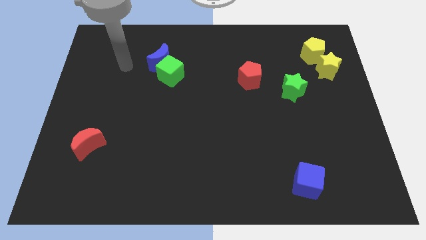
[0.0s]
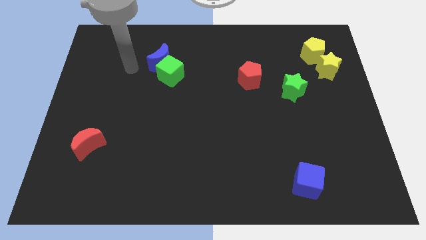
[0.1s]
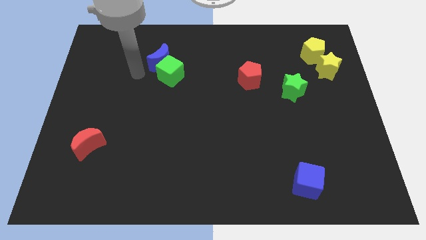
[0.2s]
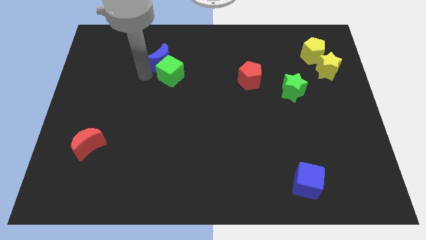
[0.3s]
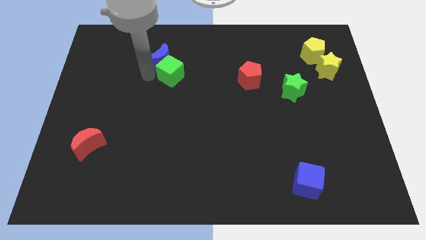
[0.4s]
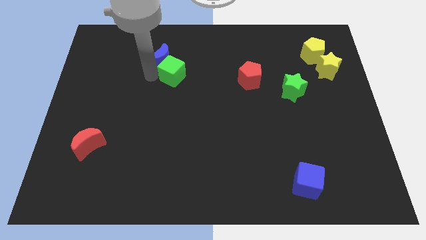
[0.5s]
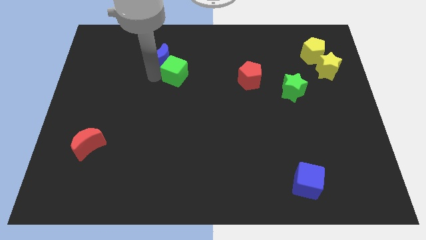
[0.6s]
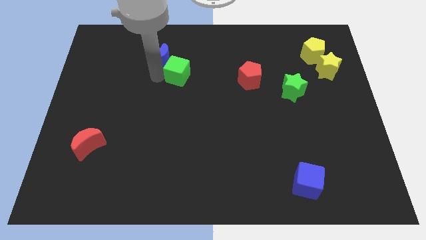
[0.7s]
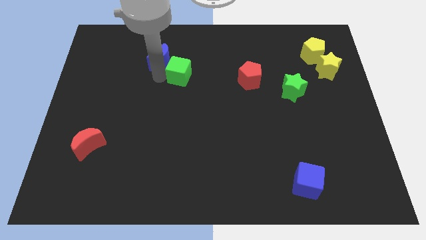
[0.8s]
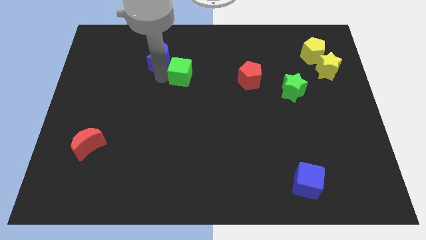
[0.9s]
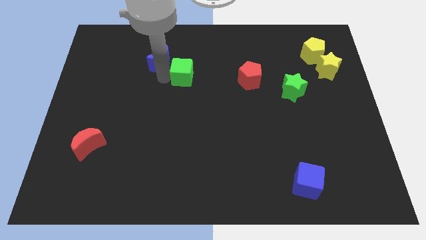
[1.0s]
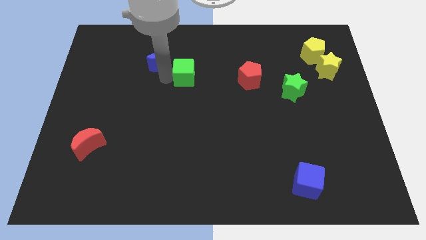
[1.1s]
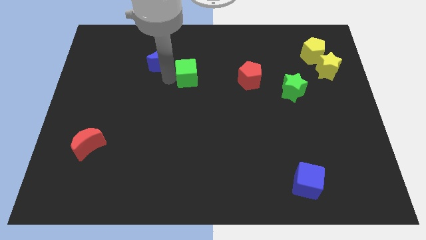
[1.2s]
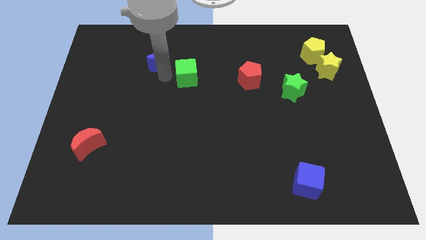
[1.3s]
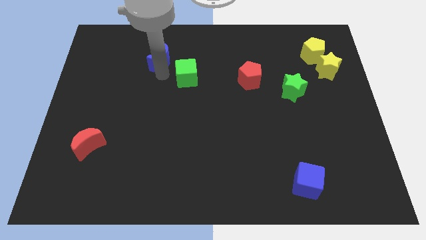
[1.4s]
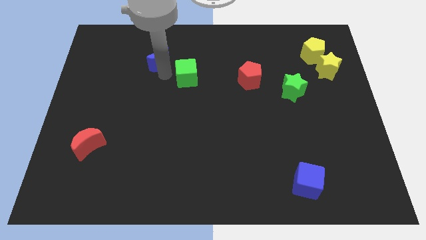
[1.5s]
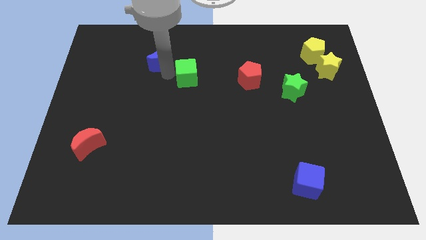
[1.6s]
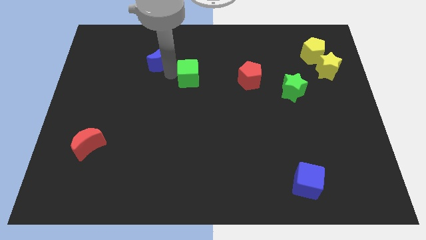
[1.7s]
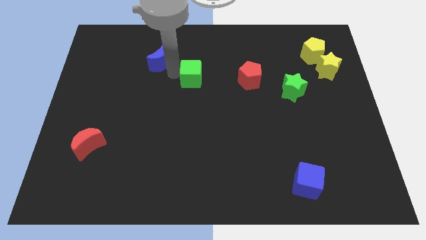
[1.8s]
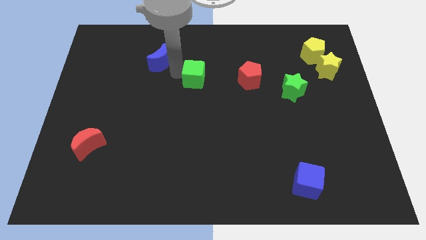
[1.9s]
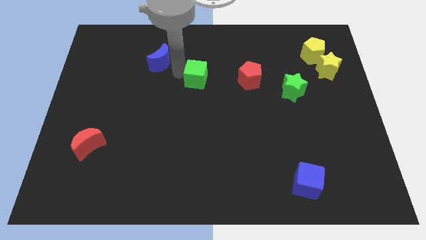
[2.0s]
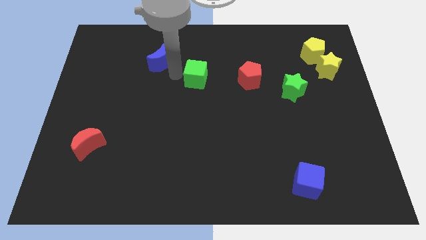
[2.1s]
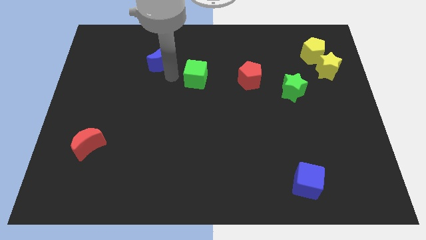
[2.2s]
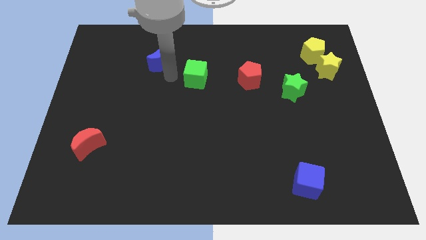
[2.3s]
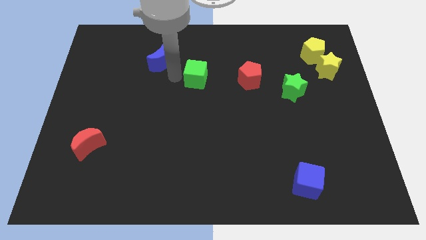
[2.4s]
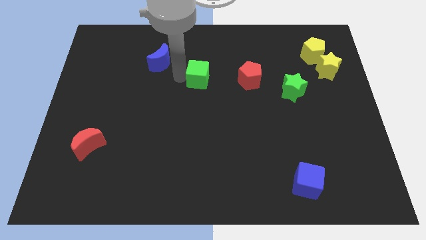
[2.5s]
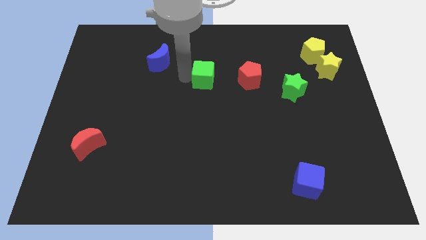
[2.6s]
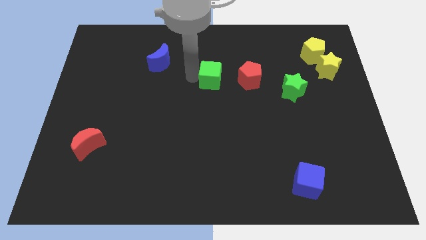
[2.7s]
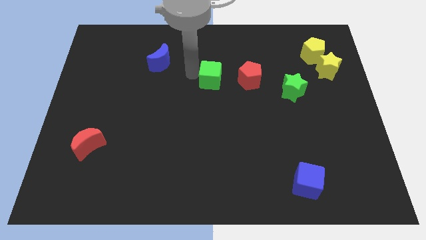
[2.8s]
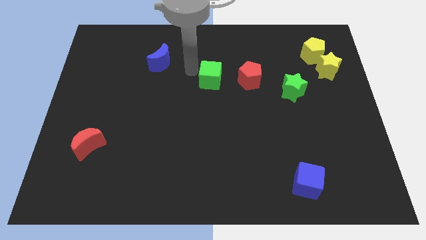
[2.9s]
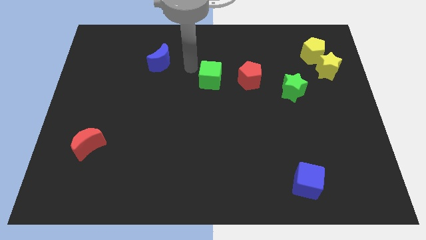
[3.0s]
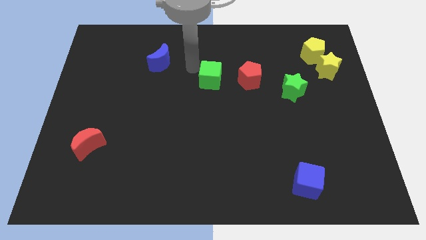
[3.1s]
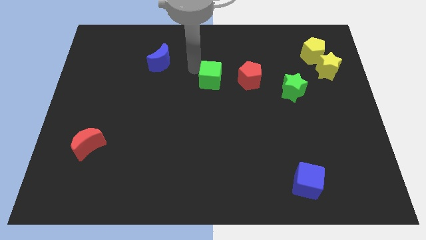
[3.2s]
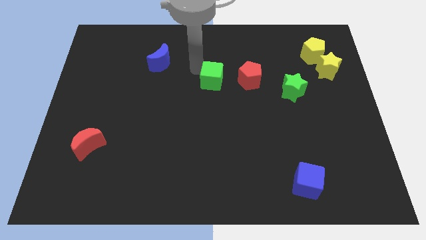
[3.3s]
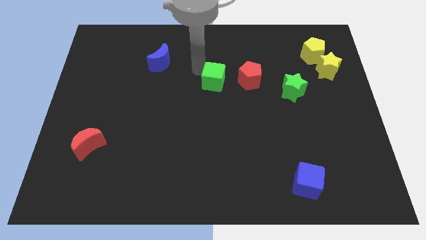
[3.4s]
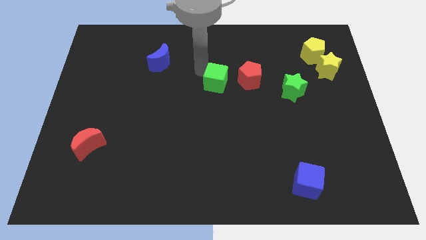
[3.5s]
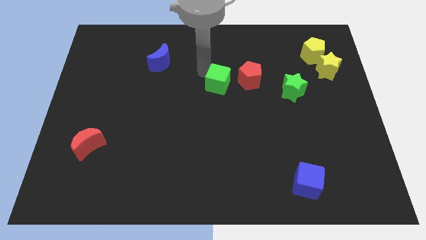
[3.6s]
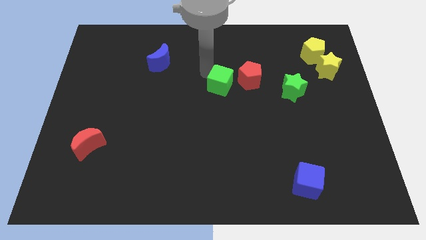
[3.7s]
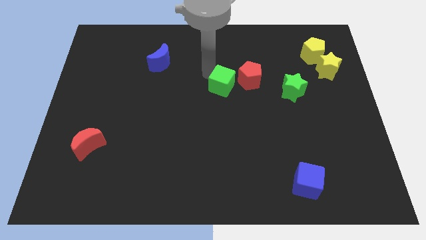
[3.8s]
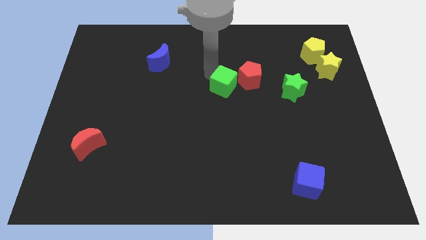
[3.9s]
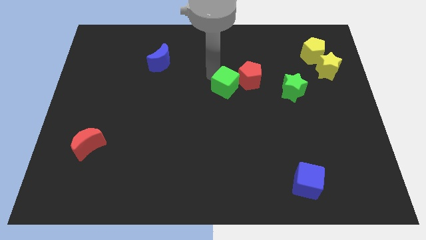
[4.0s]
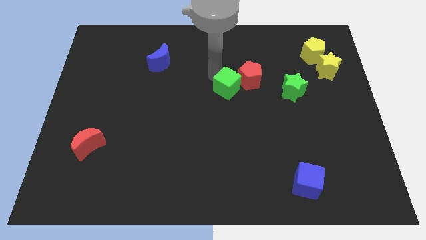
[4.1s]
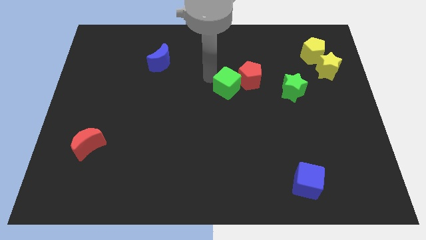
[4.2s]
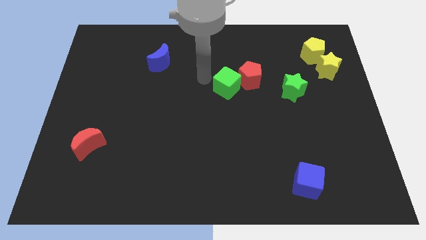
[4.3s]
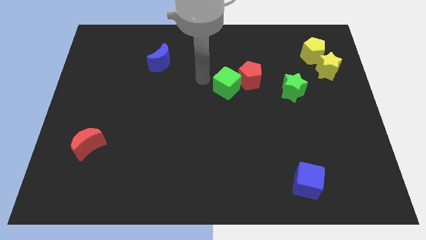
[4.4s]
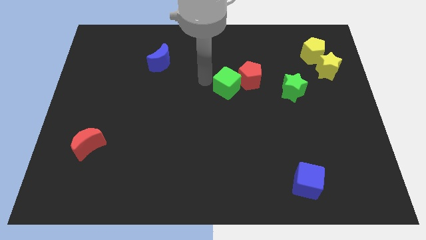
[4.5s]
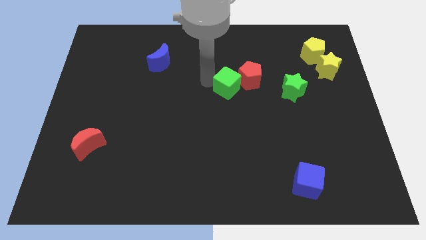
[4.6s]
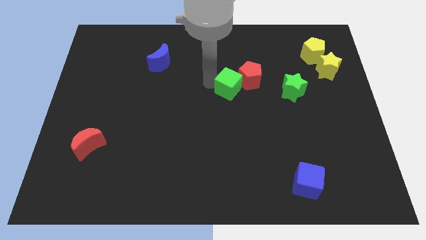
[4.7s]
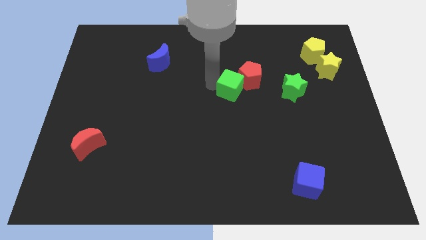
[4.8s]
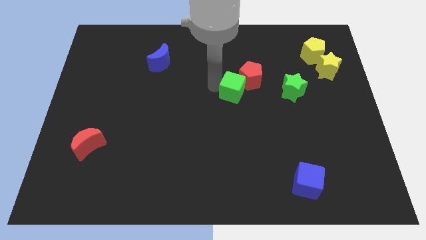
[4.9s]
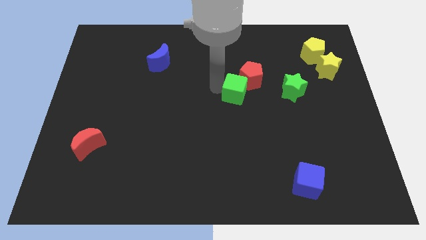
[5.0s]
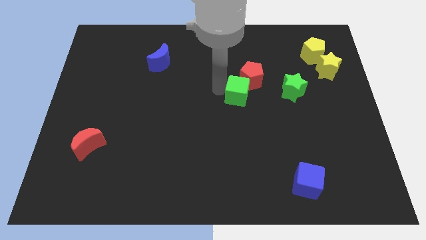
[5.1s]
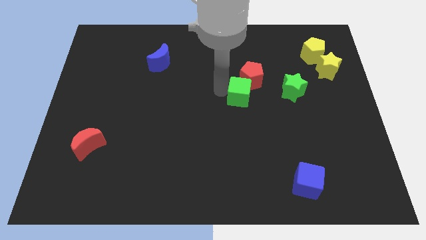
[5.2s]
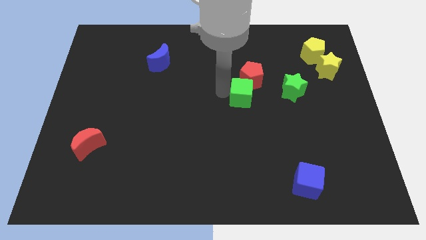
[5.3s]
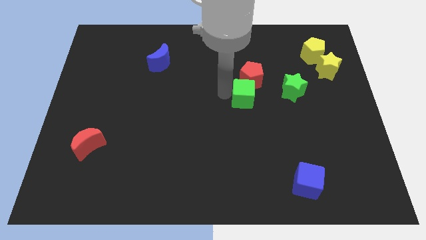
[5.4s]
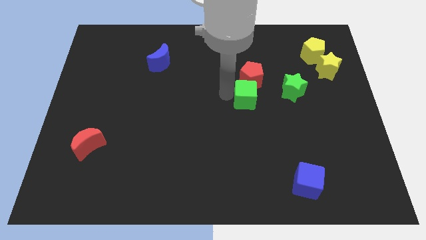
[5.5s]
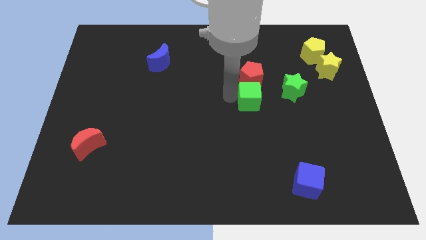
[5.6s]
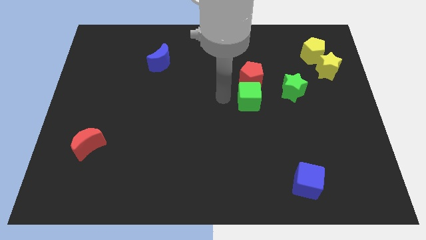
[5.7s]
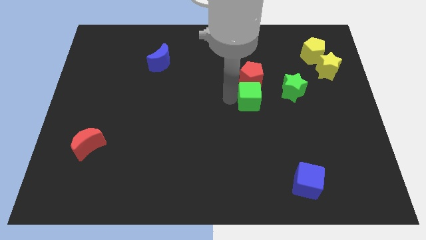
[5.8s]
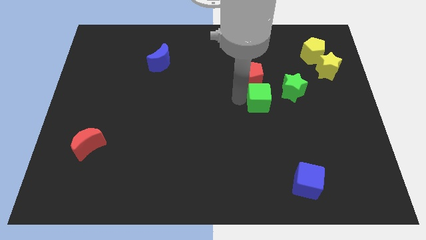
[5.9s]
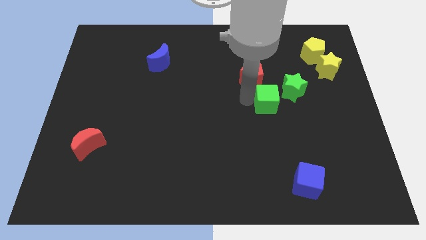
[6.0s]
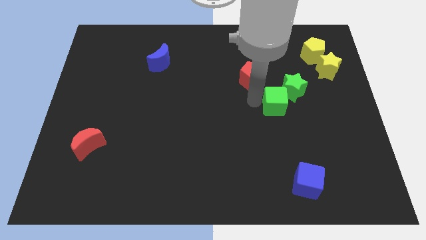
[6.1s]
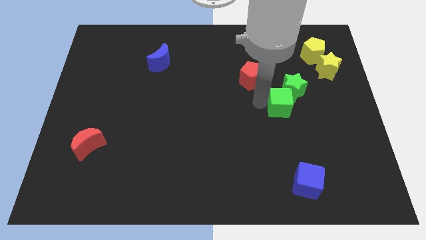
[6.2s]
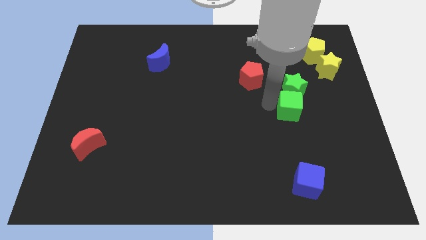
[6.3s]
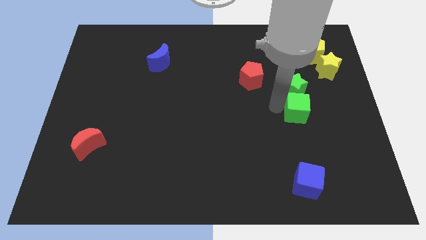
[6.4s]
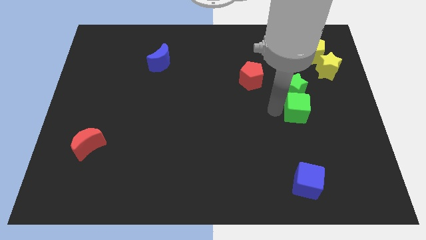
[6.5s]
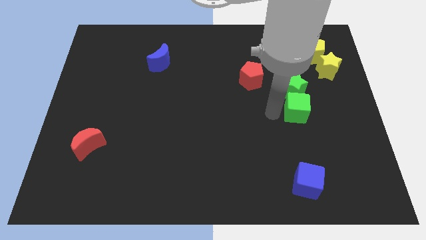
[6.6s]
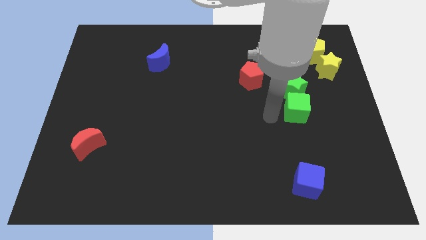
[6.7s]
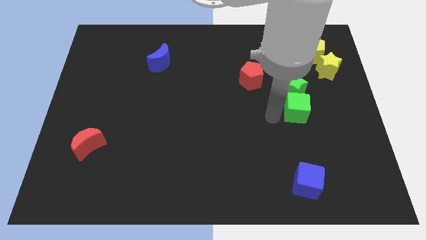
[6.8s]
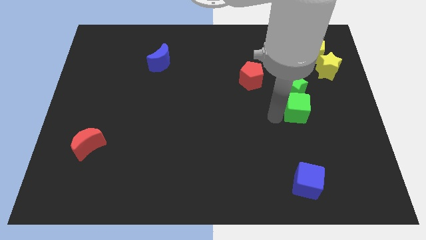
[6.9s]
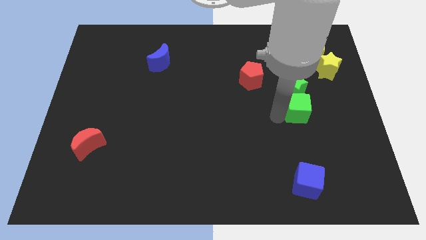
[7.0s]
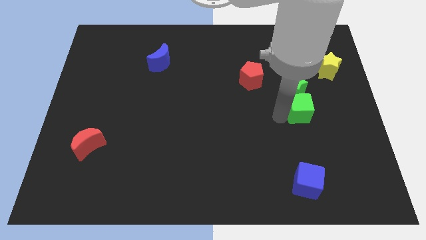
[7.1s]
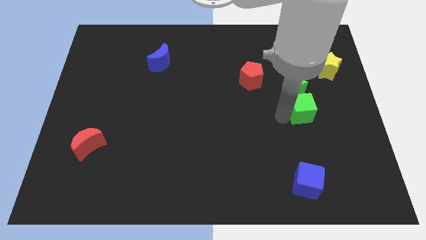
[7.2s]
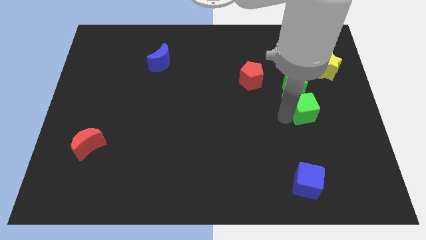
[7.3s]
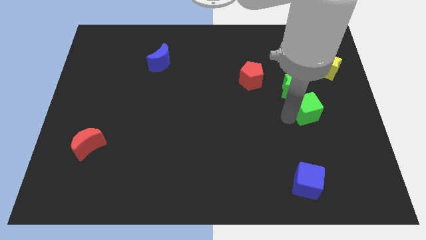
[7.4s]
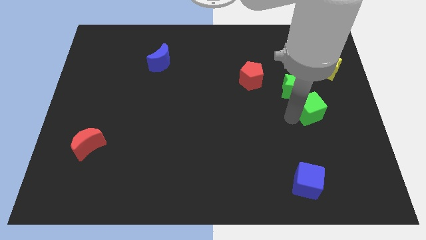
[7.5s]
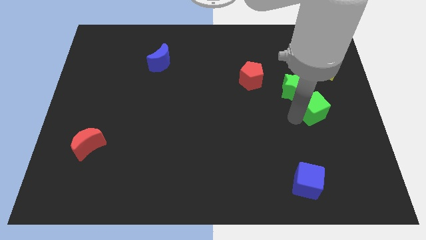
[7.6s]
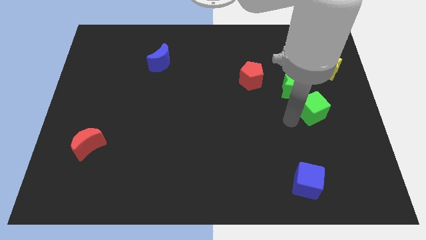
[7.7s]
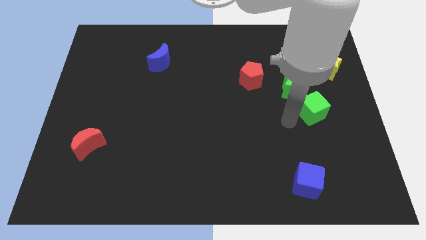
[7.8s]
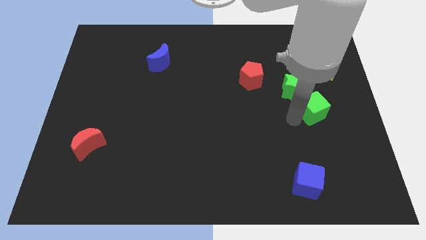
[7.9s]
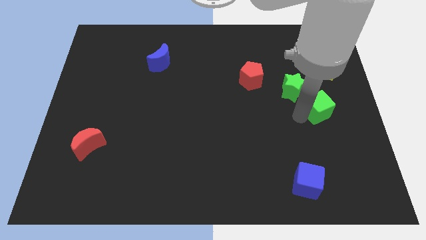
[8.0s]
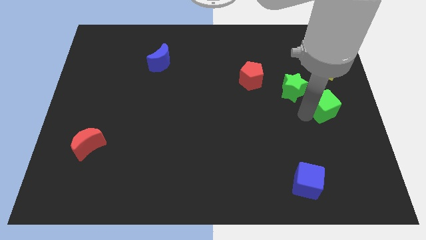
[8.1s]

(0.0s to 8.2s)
put the green cube to the right side of the board
